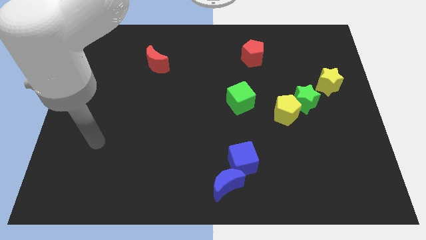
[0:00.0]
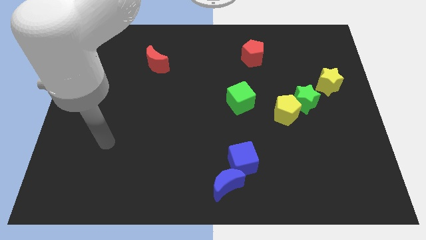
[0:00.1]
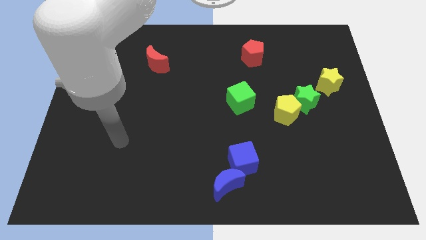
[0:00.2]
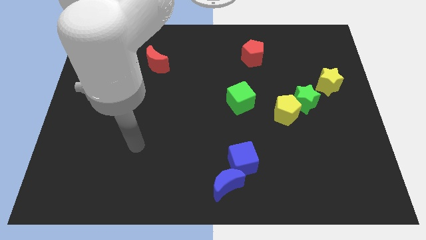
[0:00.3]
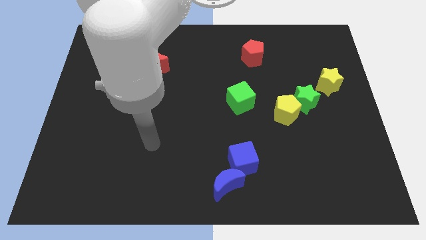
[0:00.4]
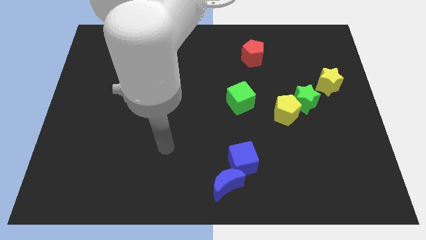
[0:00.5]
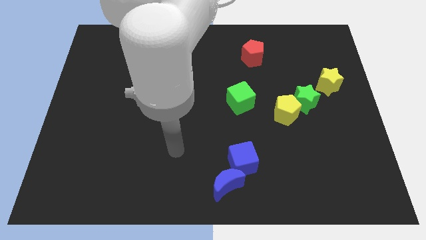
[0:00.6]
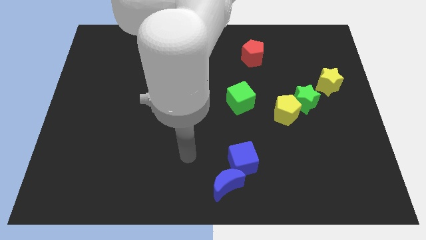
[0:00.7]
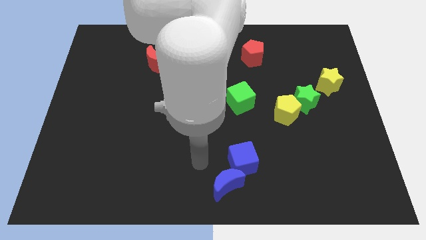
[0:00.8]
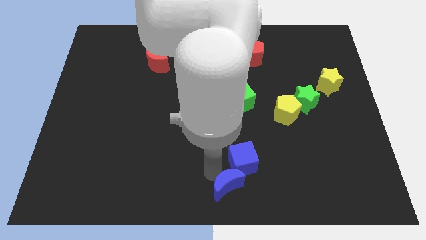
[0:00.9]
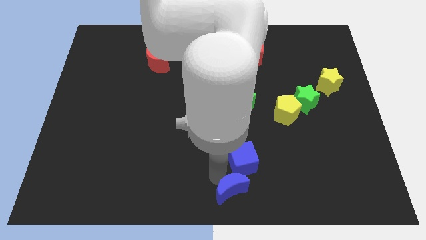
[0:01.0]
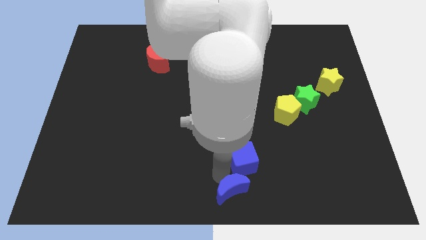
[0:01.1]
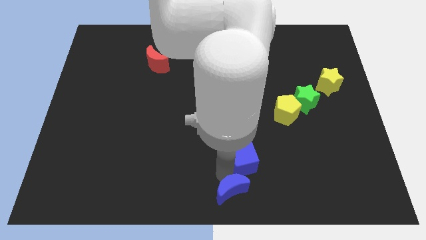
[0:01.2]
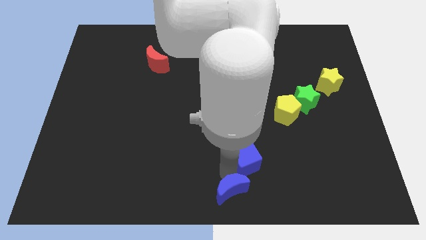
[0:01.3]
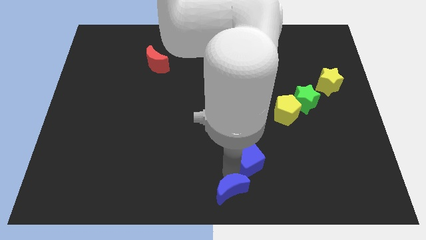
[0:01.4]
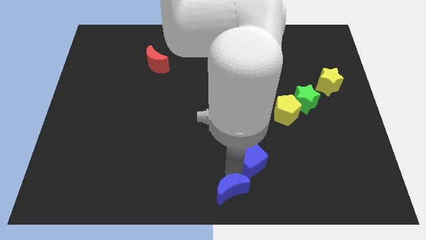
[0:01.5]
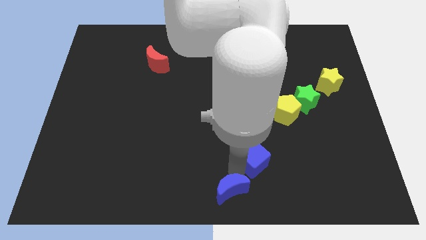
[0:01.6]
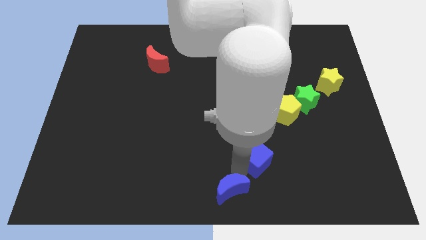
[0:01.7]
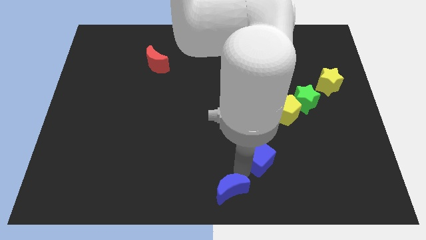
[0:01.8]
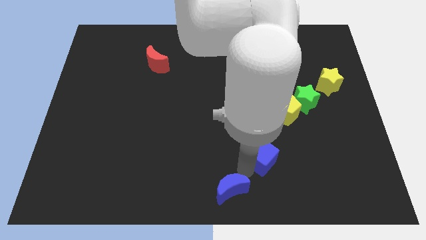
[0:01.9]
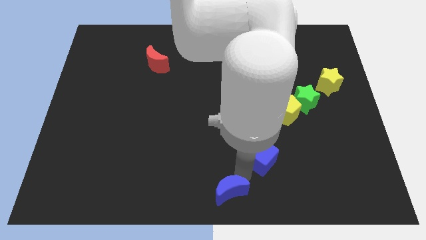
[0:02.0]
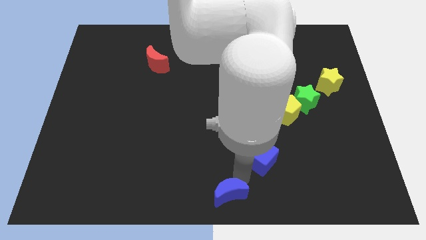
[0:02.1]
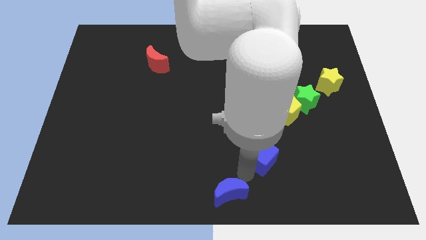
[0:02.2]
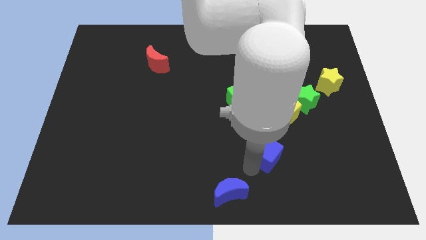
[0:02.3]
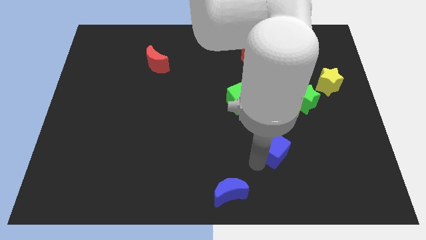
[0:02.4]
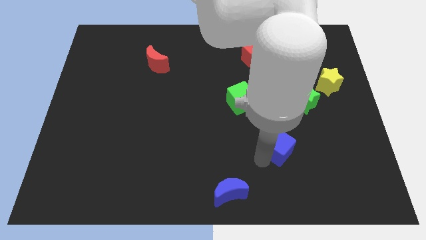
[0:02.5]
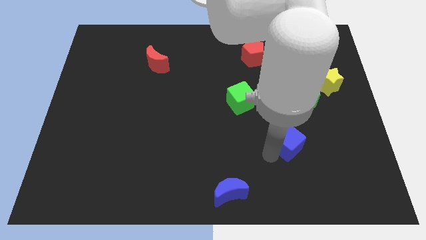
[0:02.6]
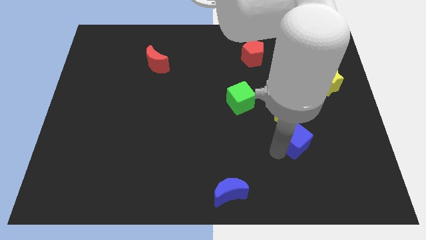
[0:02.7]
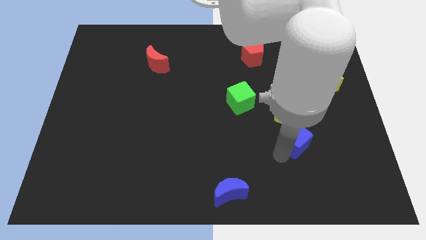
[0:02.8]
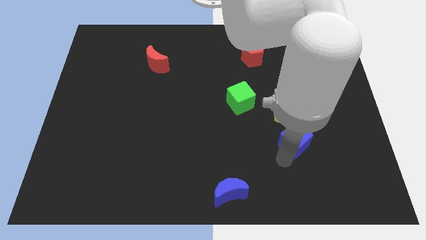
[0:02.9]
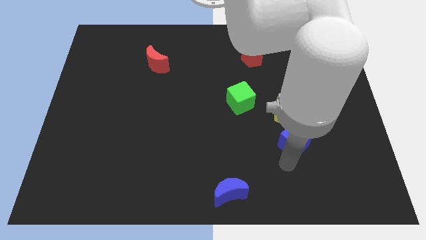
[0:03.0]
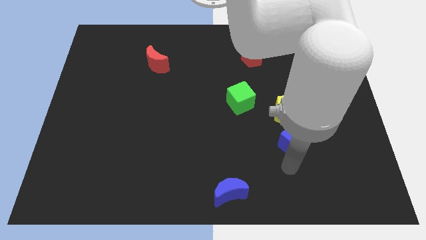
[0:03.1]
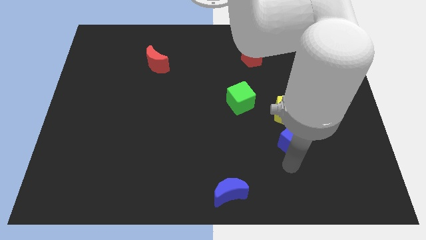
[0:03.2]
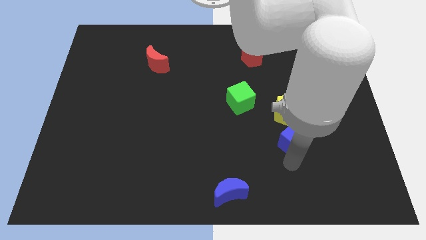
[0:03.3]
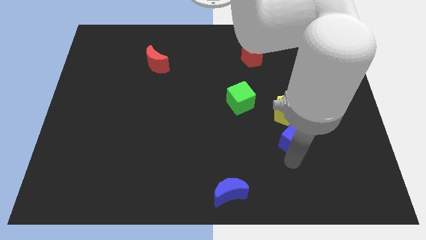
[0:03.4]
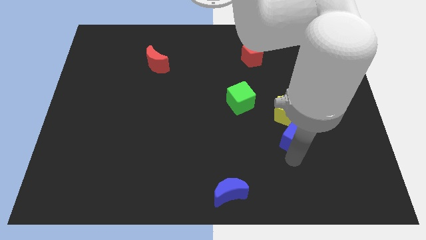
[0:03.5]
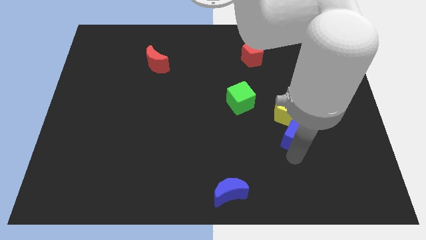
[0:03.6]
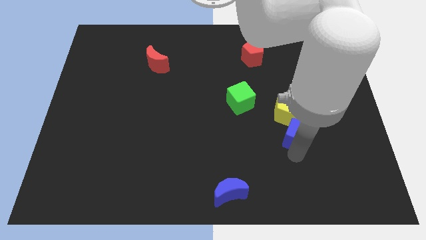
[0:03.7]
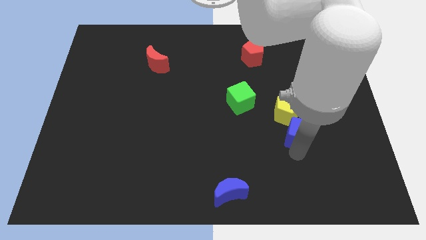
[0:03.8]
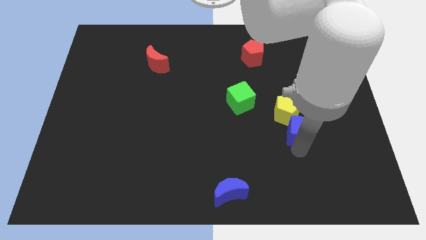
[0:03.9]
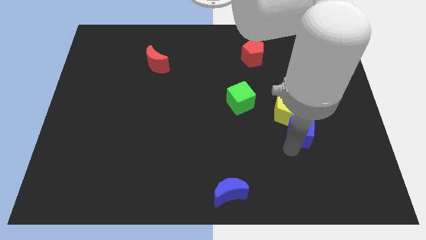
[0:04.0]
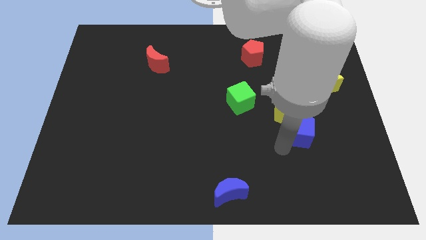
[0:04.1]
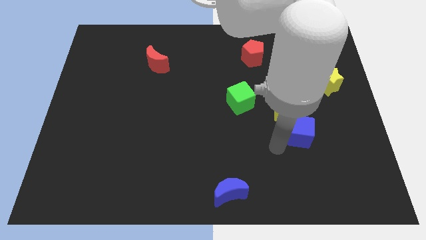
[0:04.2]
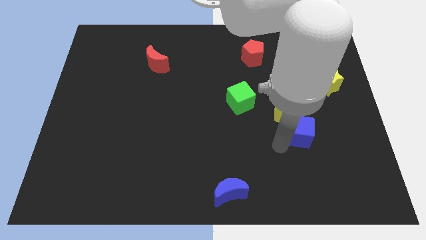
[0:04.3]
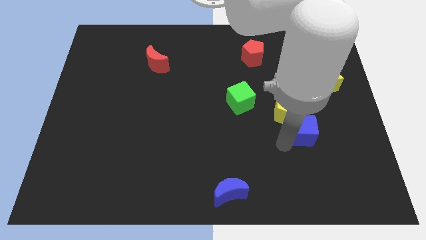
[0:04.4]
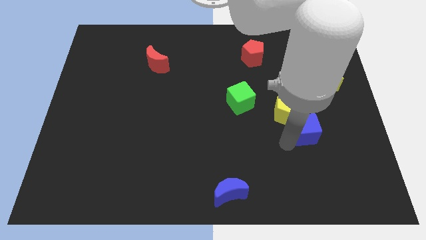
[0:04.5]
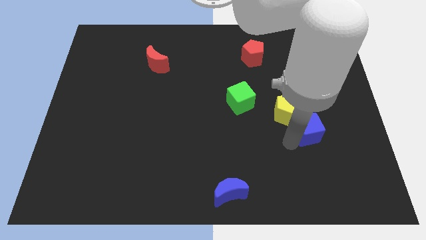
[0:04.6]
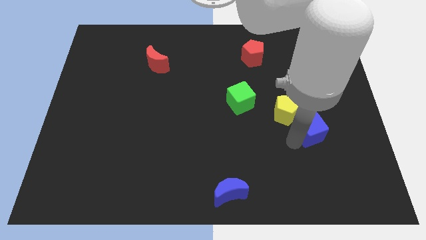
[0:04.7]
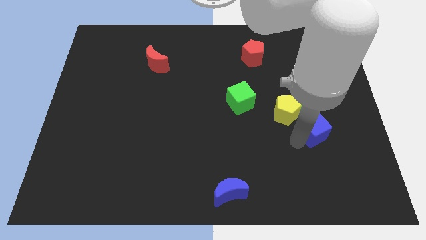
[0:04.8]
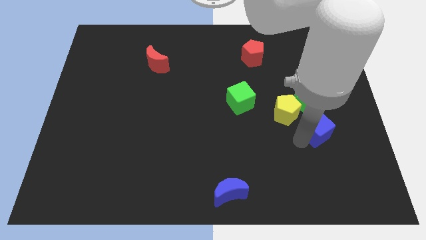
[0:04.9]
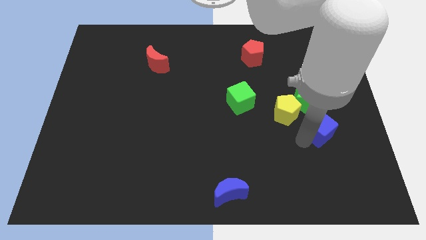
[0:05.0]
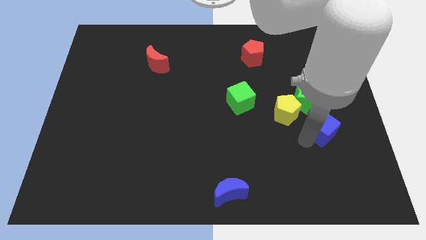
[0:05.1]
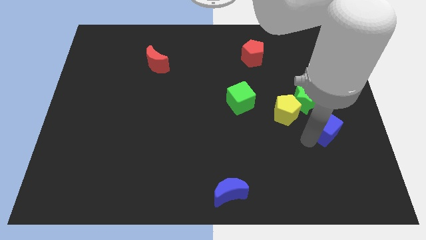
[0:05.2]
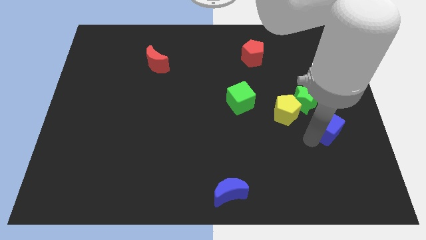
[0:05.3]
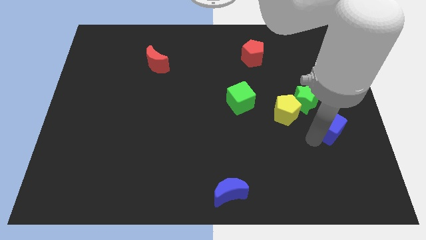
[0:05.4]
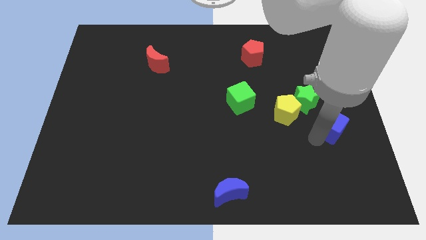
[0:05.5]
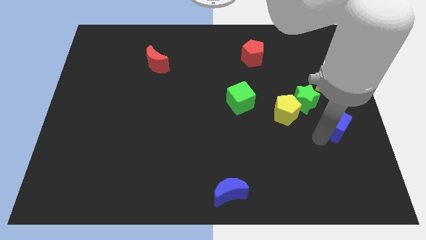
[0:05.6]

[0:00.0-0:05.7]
put the blue cube to the right side of the board
